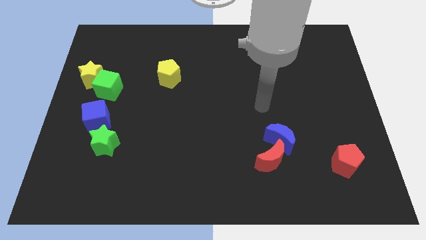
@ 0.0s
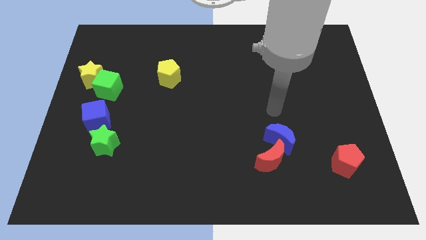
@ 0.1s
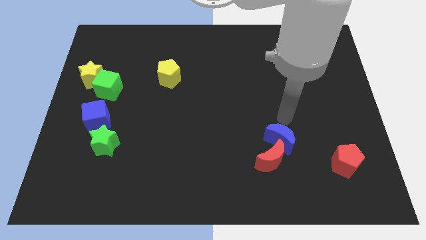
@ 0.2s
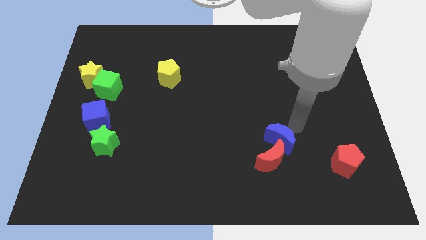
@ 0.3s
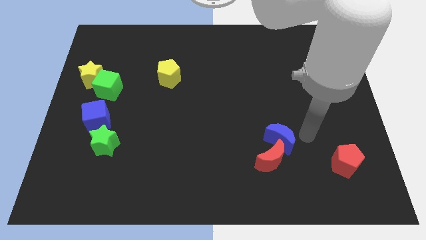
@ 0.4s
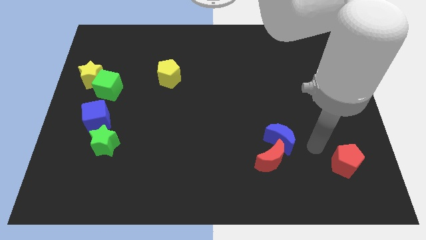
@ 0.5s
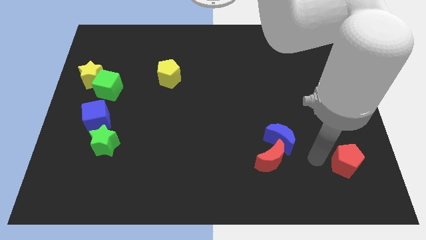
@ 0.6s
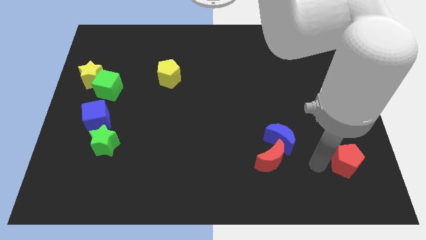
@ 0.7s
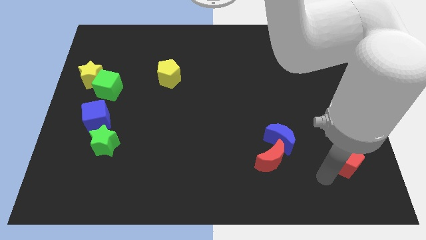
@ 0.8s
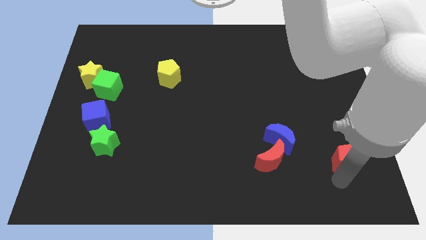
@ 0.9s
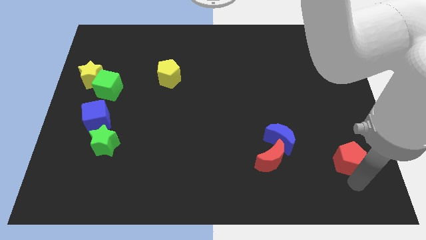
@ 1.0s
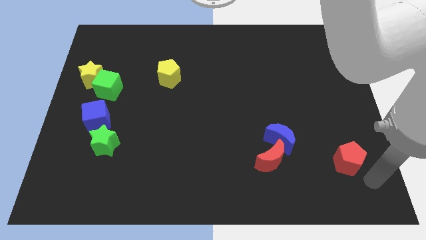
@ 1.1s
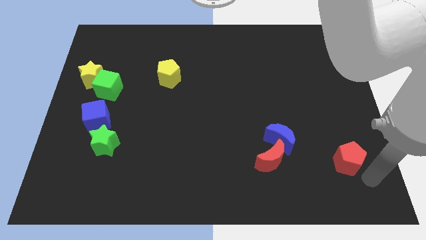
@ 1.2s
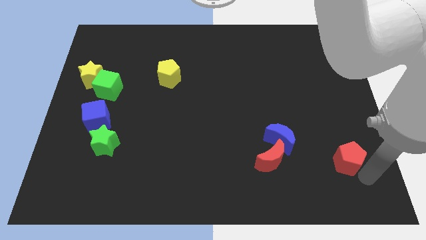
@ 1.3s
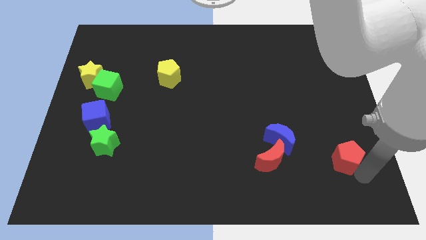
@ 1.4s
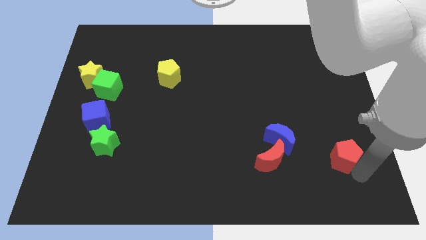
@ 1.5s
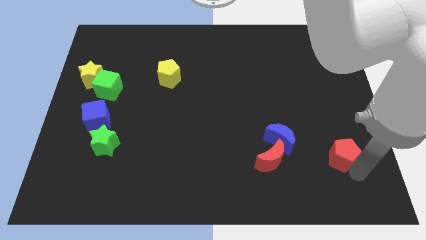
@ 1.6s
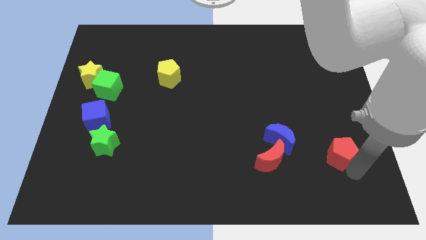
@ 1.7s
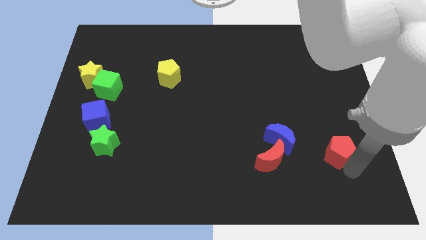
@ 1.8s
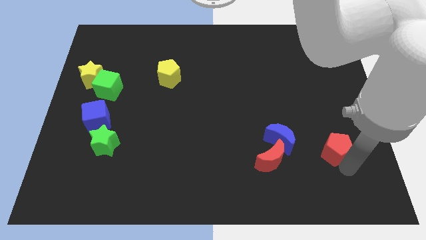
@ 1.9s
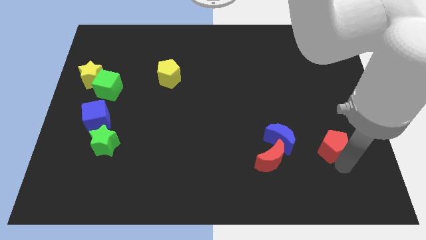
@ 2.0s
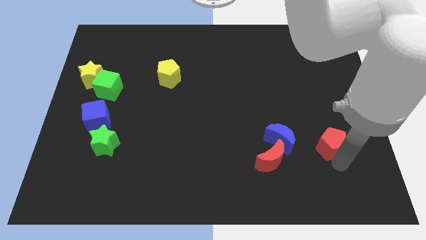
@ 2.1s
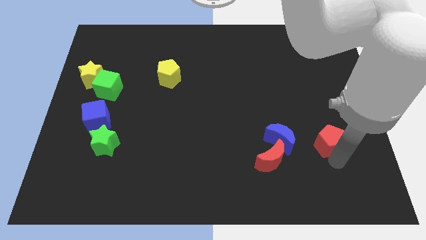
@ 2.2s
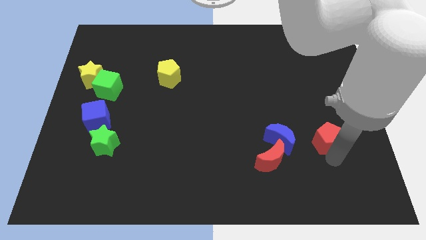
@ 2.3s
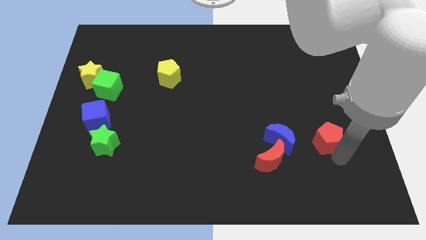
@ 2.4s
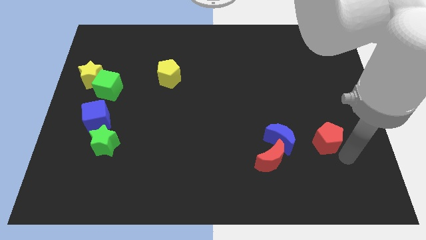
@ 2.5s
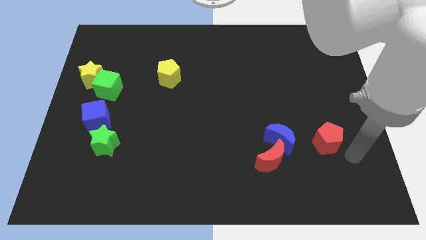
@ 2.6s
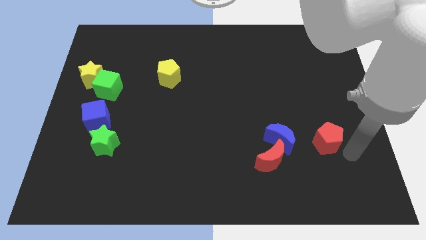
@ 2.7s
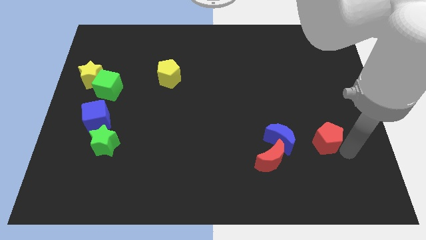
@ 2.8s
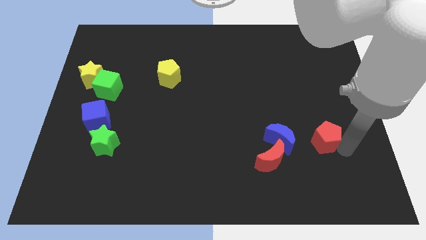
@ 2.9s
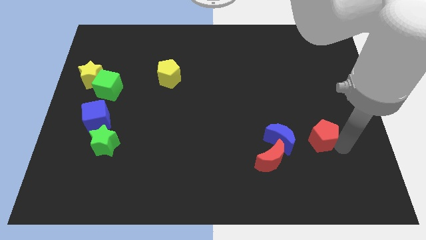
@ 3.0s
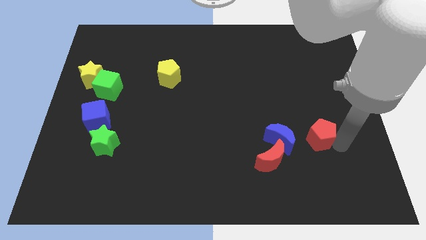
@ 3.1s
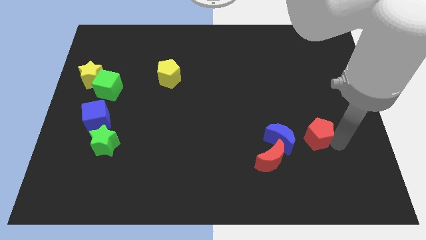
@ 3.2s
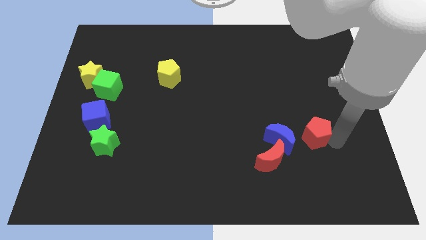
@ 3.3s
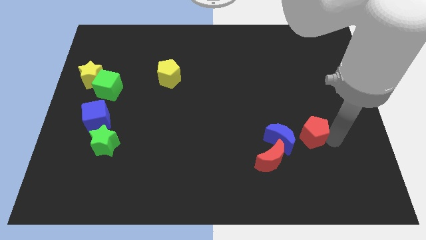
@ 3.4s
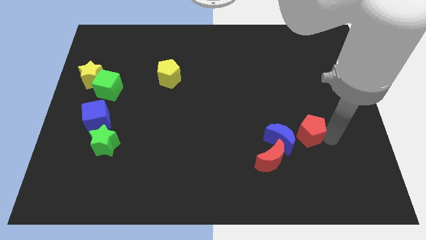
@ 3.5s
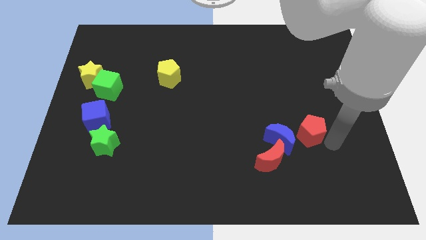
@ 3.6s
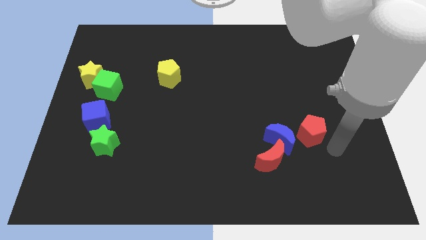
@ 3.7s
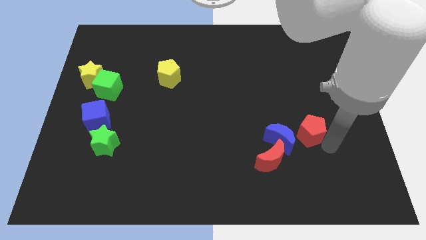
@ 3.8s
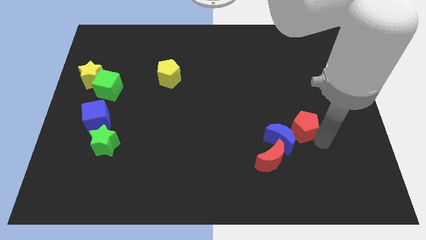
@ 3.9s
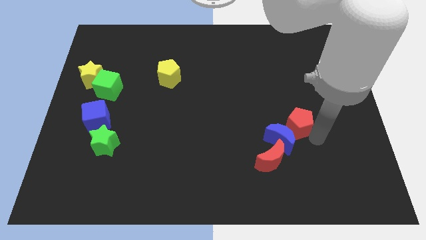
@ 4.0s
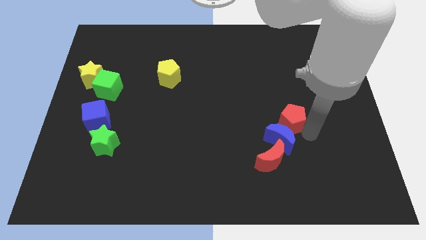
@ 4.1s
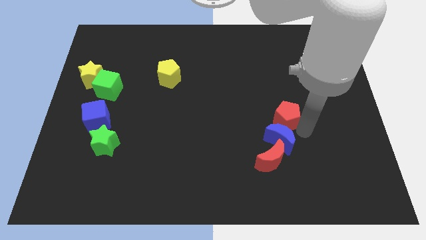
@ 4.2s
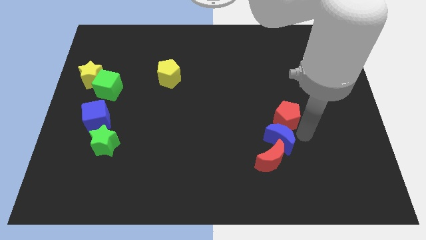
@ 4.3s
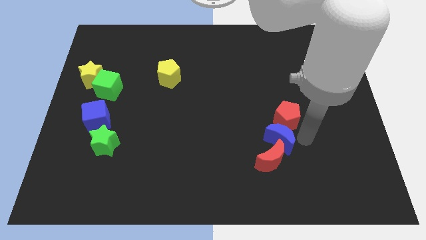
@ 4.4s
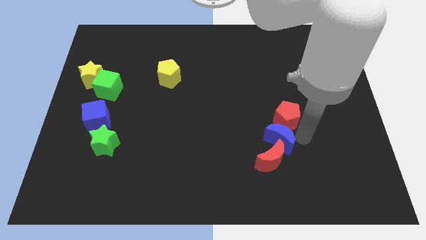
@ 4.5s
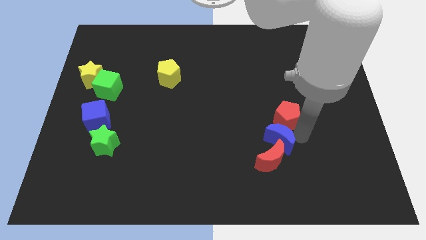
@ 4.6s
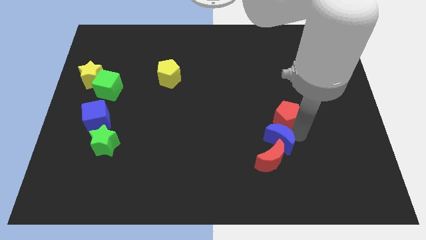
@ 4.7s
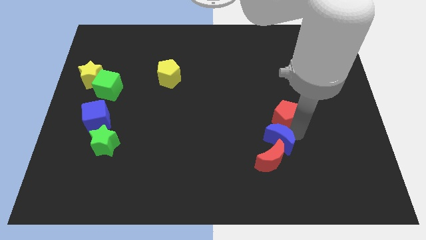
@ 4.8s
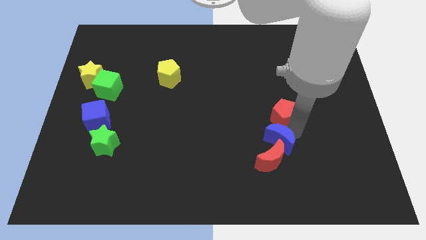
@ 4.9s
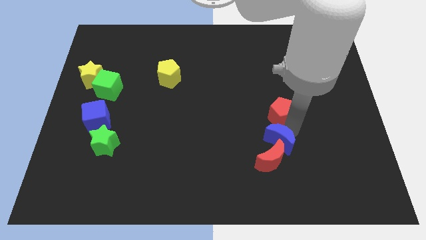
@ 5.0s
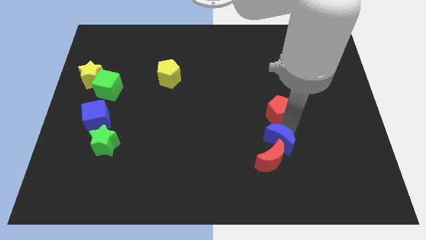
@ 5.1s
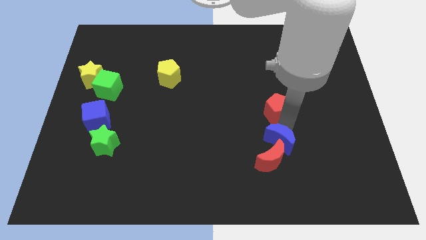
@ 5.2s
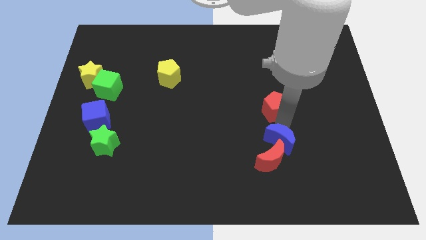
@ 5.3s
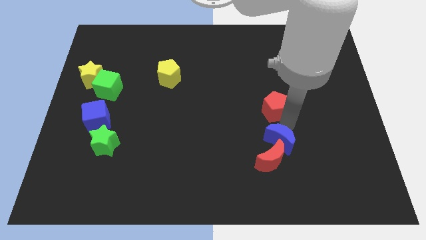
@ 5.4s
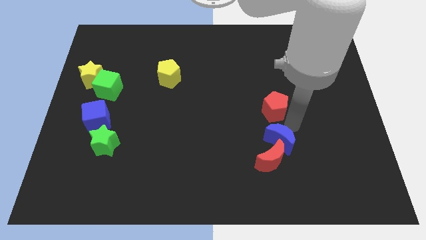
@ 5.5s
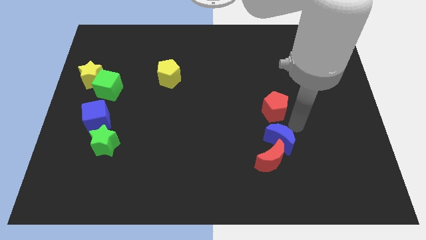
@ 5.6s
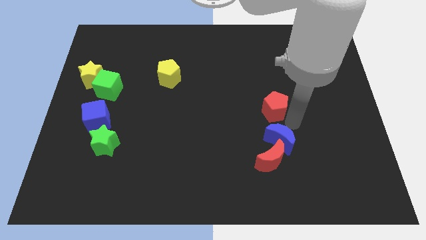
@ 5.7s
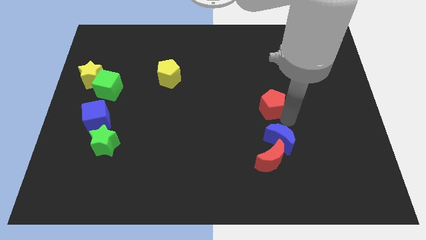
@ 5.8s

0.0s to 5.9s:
push the red pentagon upwards and left diagonally

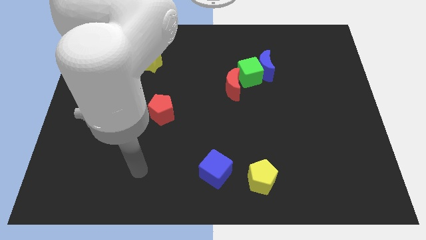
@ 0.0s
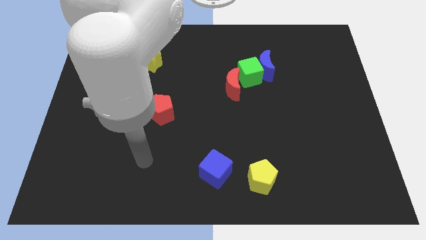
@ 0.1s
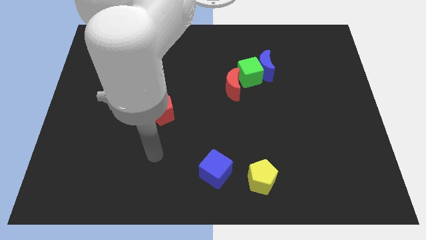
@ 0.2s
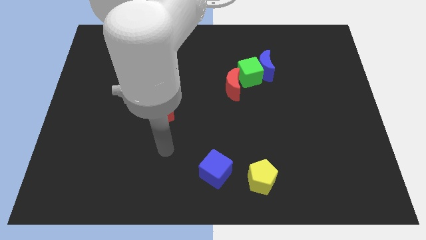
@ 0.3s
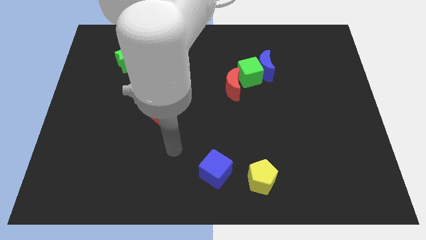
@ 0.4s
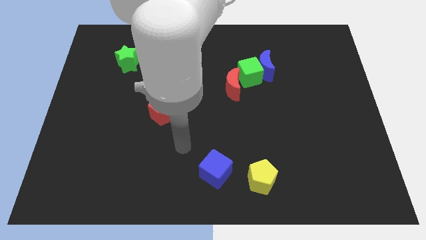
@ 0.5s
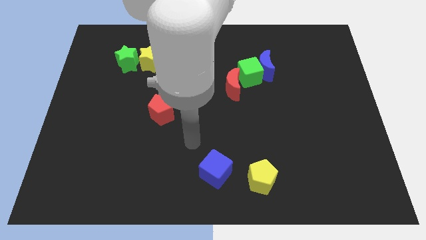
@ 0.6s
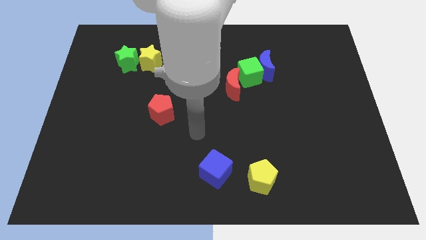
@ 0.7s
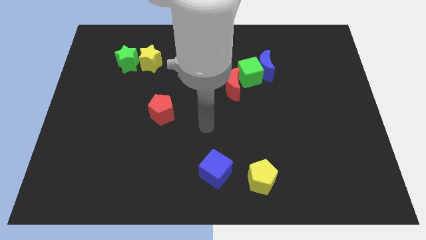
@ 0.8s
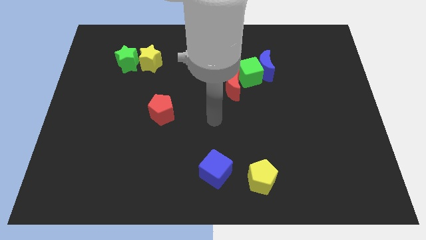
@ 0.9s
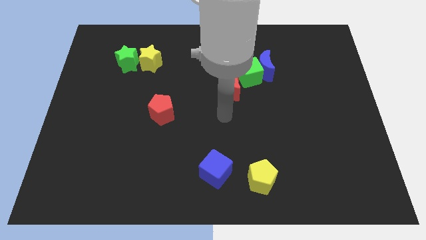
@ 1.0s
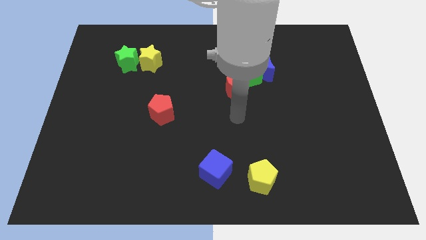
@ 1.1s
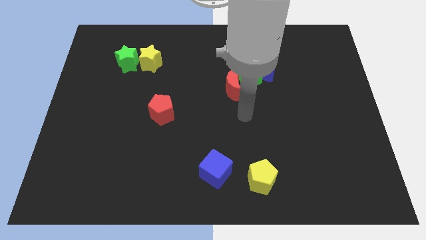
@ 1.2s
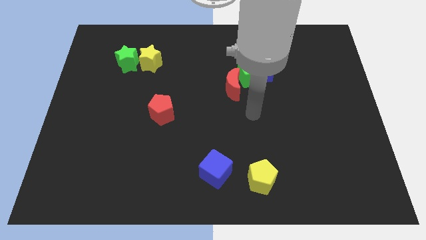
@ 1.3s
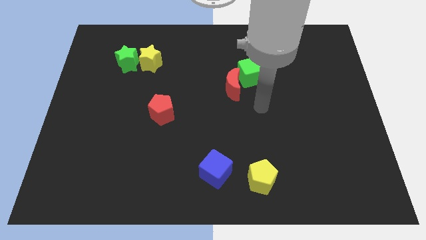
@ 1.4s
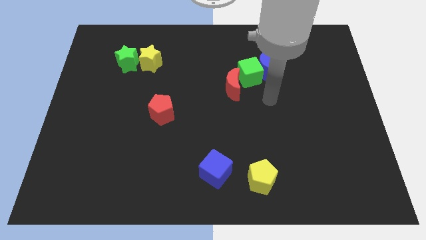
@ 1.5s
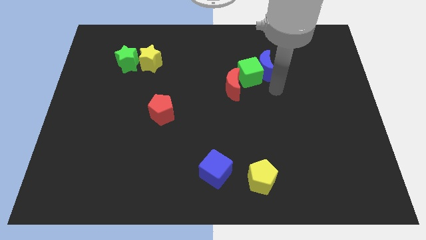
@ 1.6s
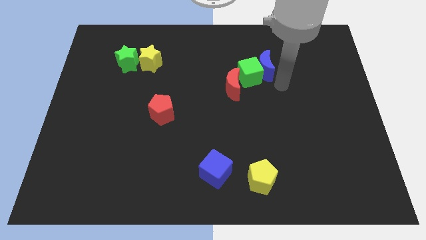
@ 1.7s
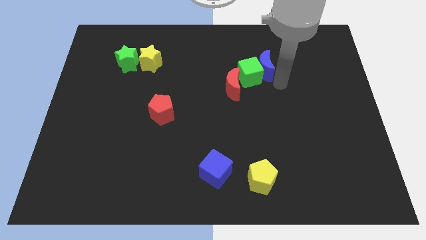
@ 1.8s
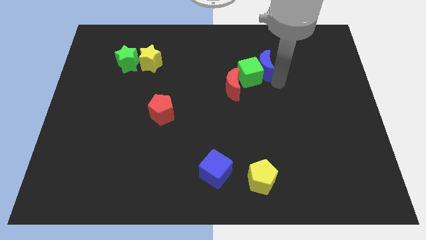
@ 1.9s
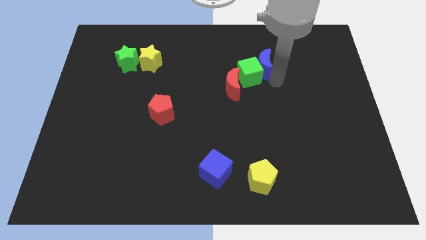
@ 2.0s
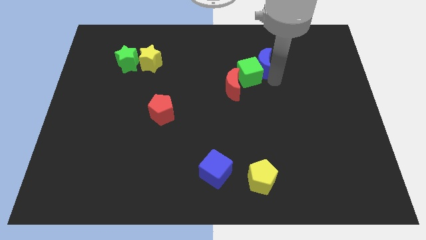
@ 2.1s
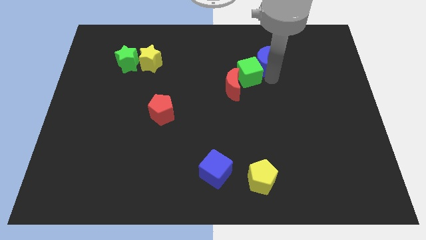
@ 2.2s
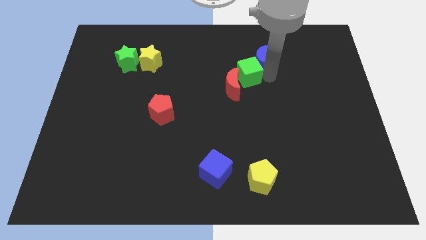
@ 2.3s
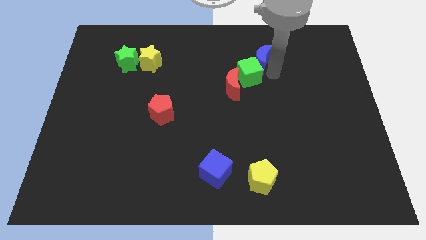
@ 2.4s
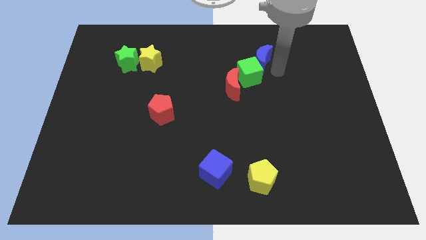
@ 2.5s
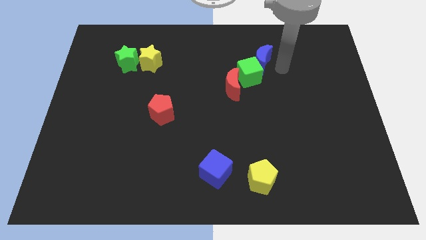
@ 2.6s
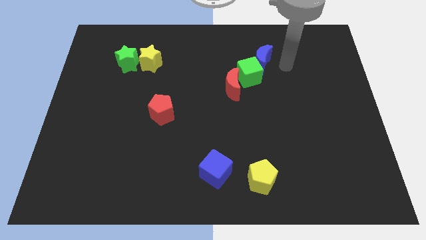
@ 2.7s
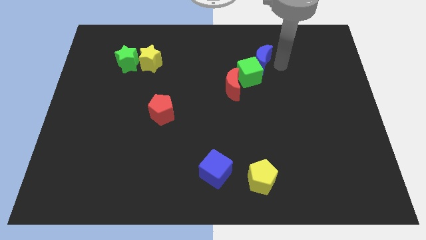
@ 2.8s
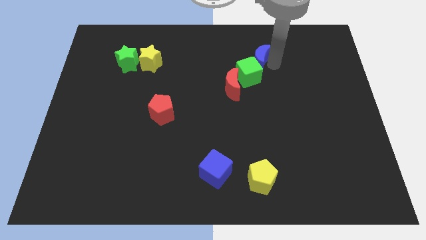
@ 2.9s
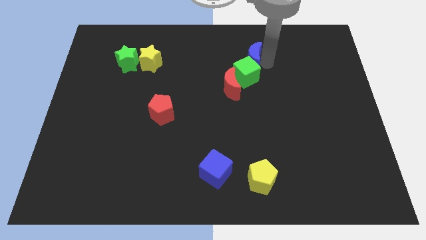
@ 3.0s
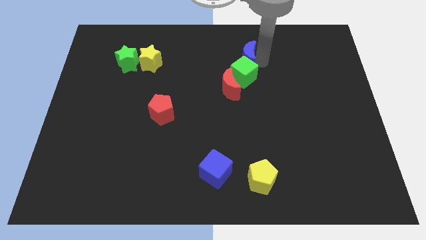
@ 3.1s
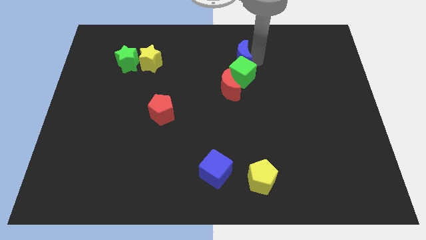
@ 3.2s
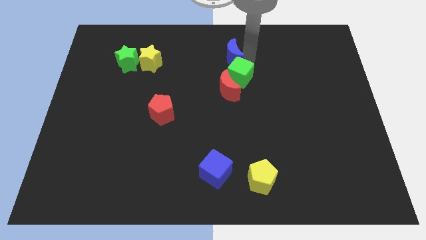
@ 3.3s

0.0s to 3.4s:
slightly move the blue moon to the left
